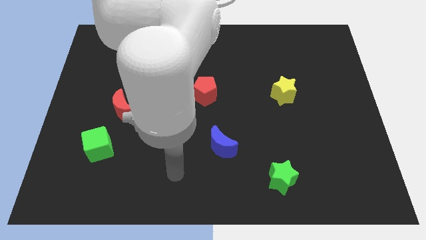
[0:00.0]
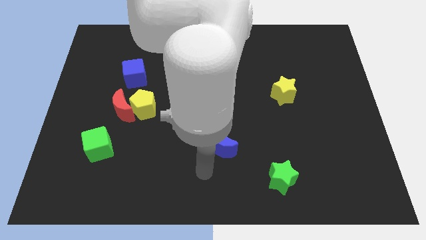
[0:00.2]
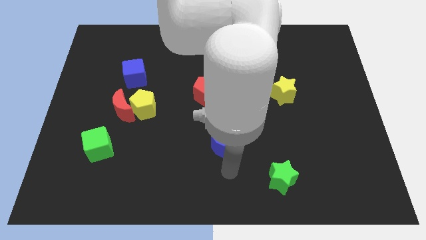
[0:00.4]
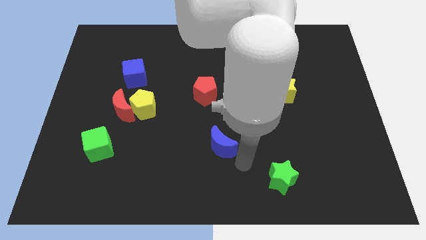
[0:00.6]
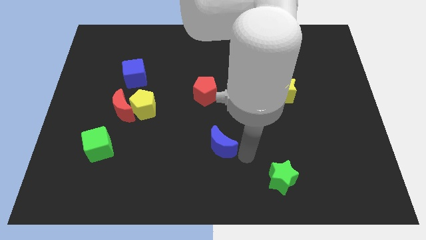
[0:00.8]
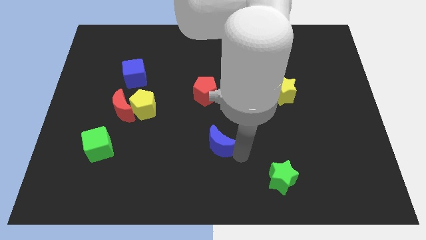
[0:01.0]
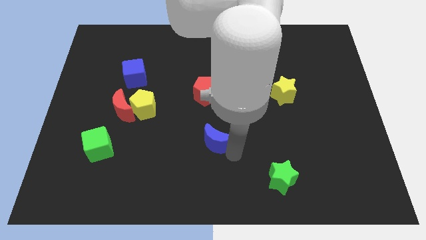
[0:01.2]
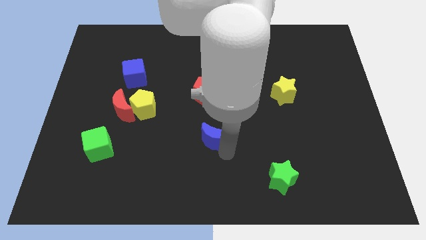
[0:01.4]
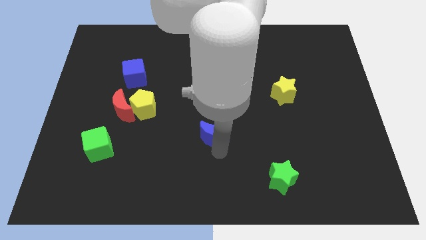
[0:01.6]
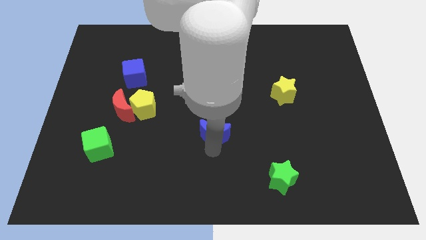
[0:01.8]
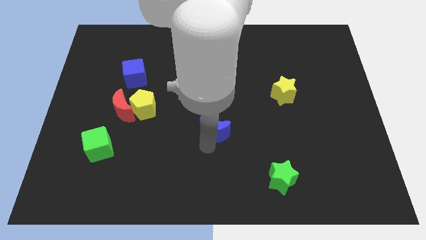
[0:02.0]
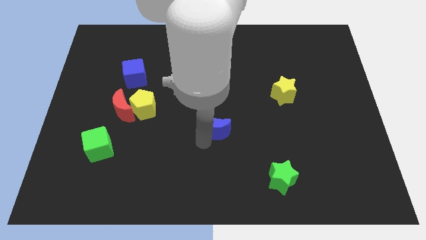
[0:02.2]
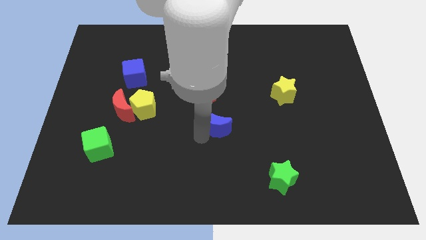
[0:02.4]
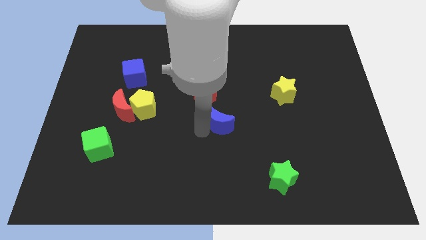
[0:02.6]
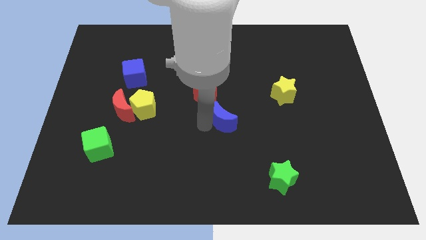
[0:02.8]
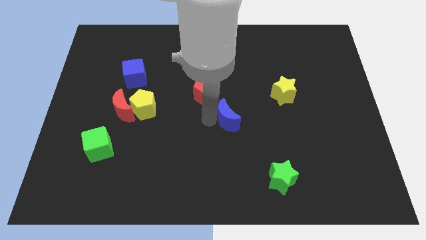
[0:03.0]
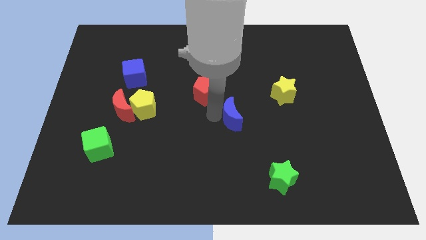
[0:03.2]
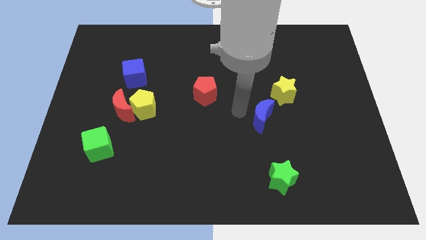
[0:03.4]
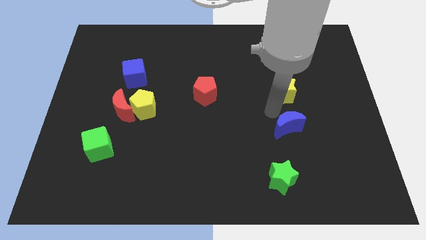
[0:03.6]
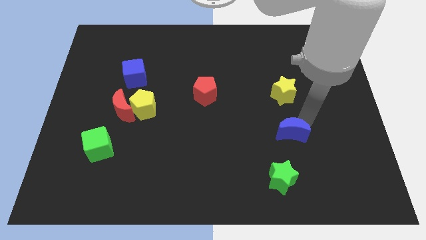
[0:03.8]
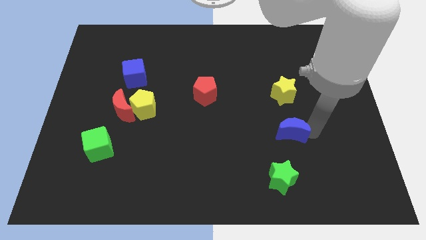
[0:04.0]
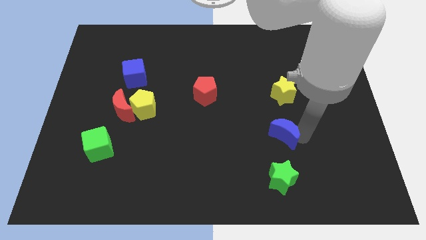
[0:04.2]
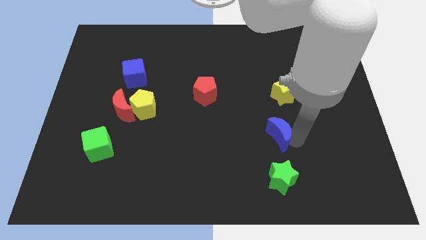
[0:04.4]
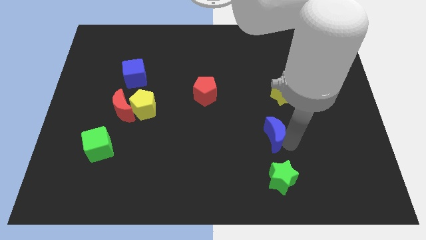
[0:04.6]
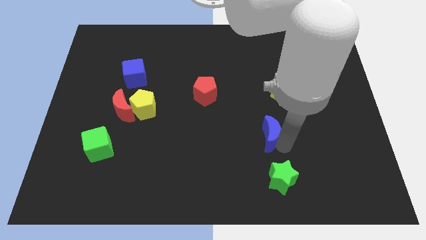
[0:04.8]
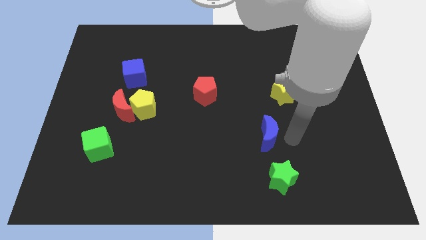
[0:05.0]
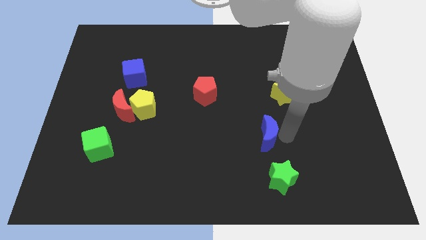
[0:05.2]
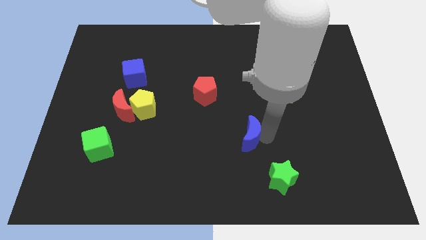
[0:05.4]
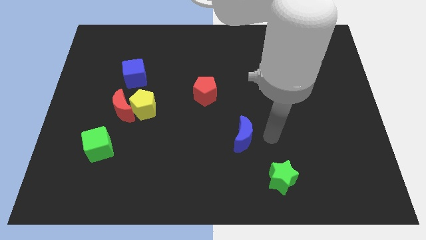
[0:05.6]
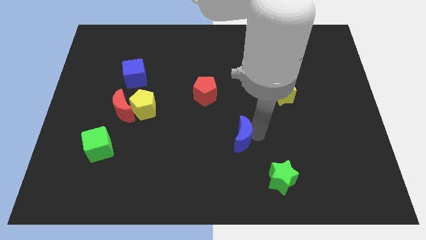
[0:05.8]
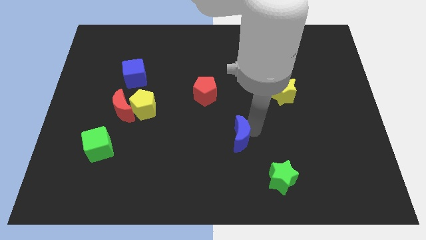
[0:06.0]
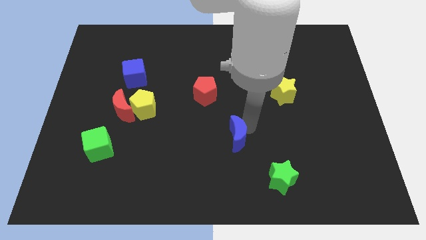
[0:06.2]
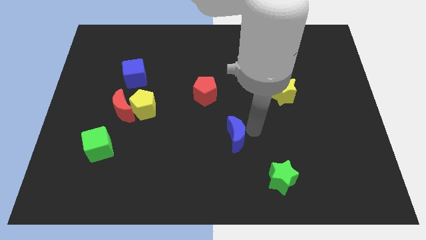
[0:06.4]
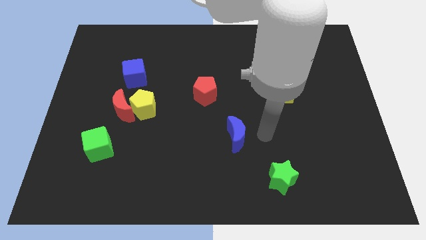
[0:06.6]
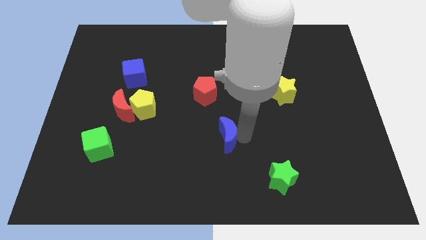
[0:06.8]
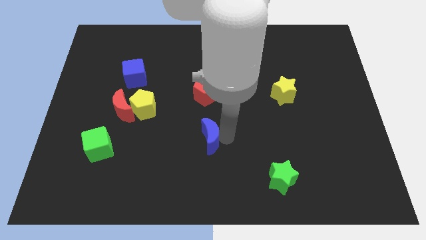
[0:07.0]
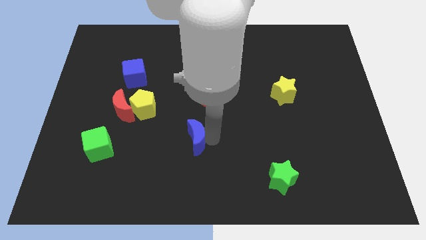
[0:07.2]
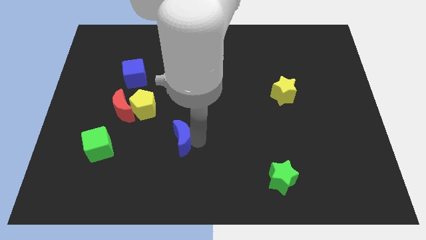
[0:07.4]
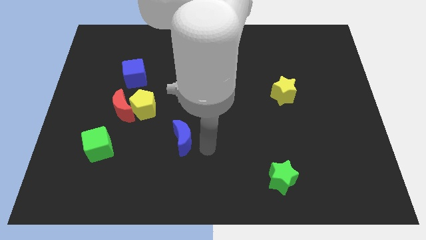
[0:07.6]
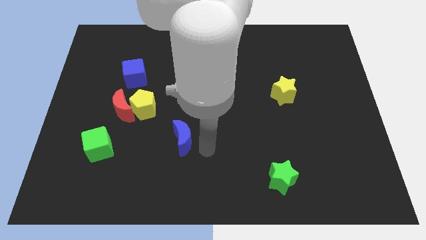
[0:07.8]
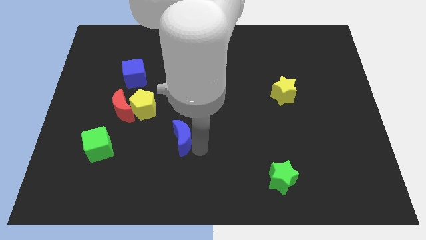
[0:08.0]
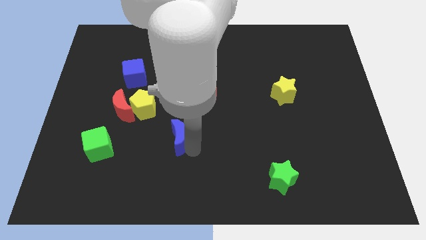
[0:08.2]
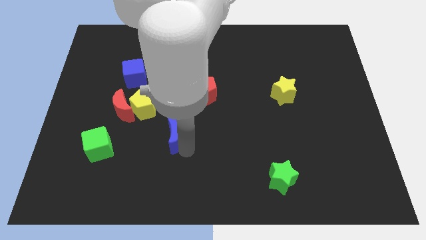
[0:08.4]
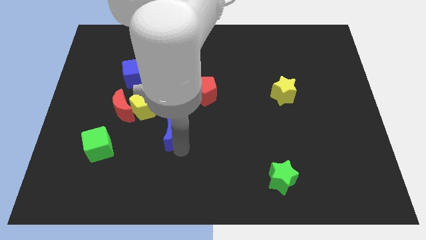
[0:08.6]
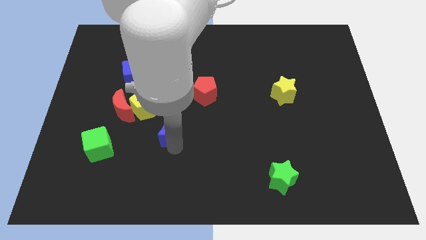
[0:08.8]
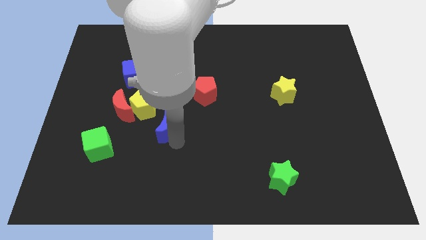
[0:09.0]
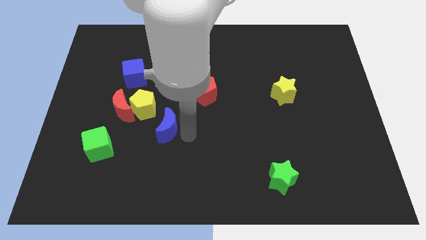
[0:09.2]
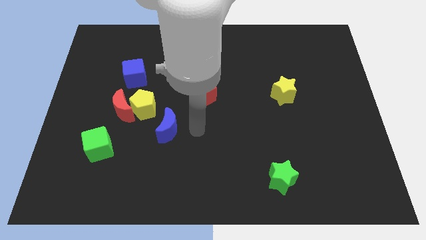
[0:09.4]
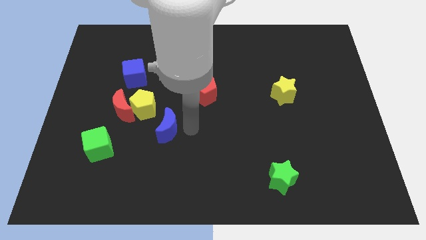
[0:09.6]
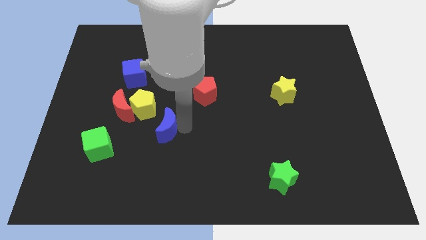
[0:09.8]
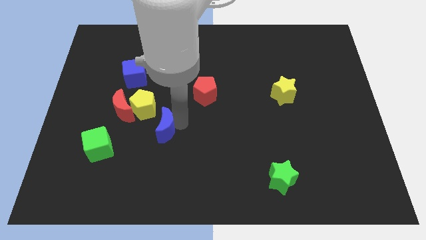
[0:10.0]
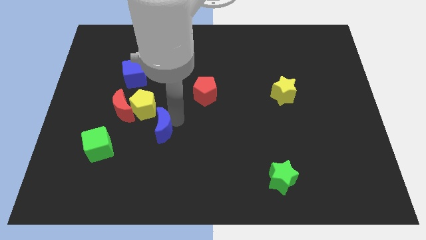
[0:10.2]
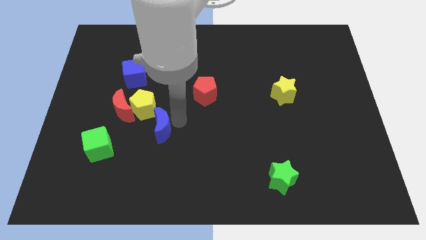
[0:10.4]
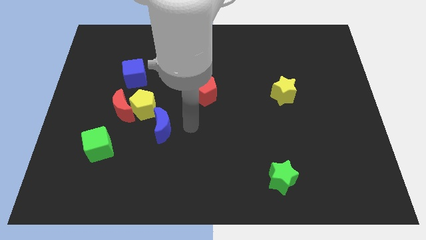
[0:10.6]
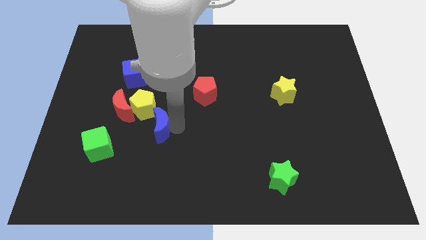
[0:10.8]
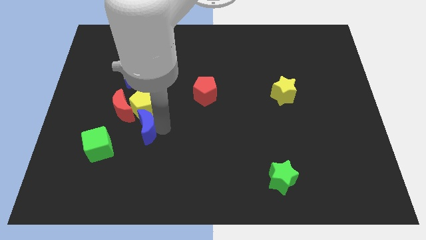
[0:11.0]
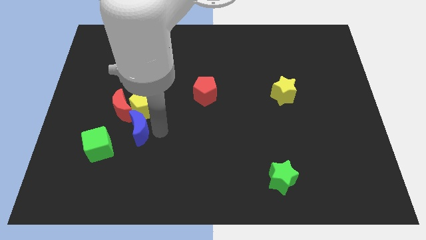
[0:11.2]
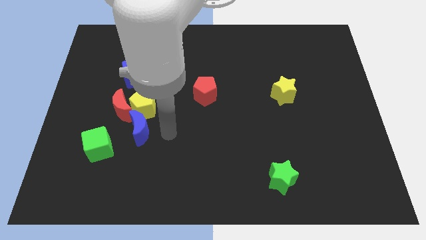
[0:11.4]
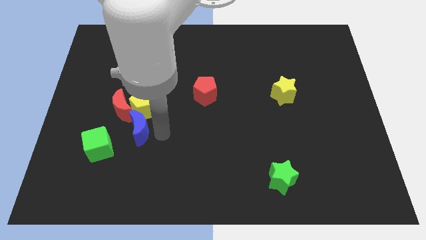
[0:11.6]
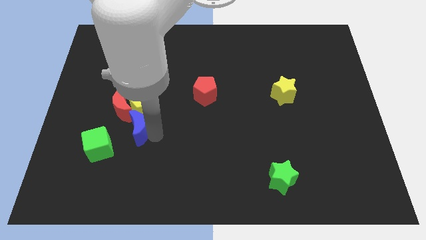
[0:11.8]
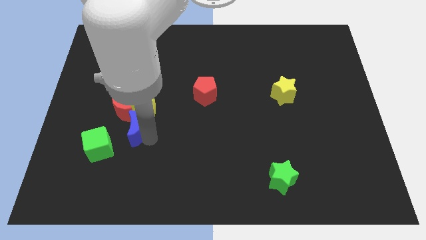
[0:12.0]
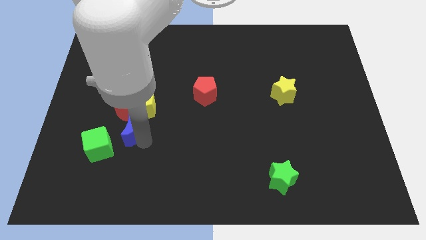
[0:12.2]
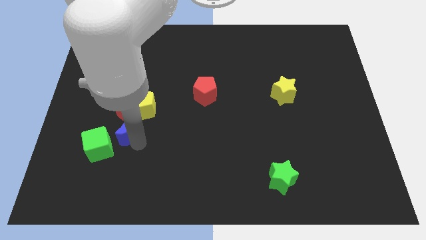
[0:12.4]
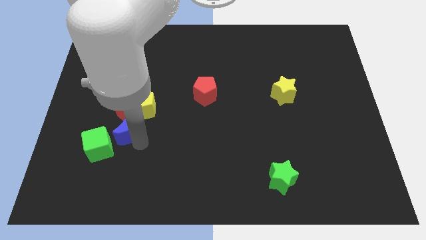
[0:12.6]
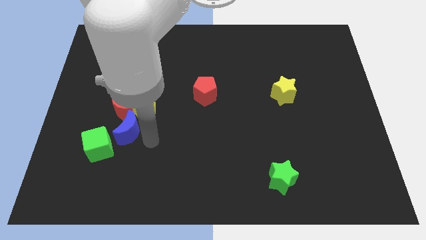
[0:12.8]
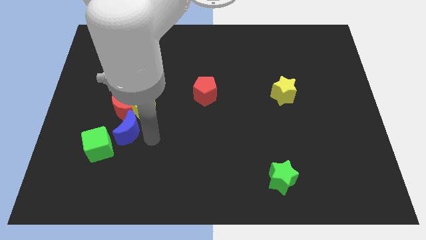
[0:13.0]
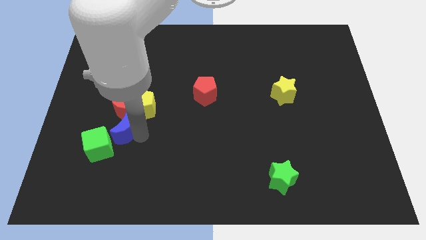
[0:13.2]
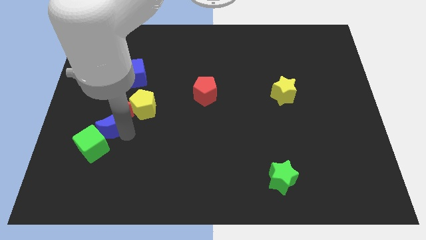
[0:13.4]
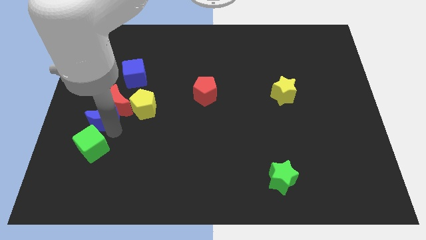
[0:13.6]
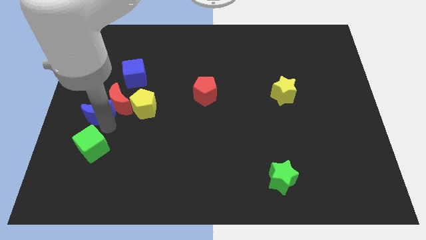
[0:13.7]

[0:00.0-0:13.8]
push the blue moon to the center left
